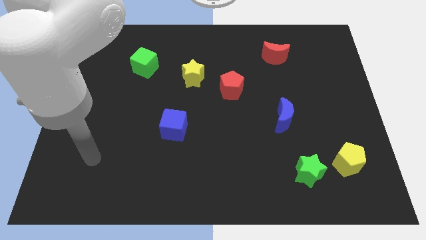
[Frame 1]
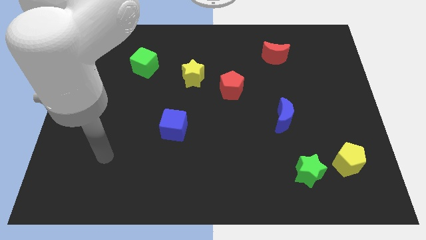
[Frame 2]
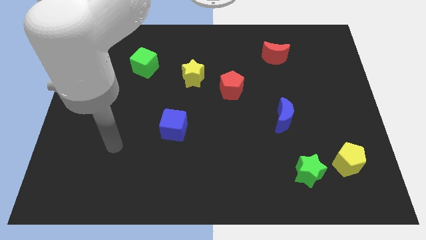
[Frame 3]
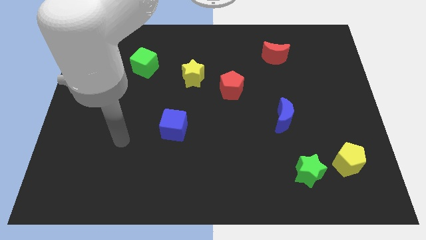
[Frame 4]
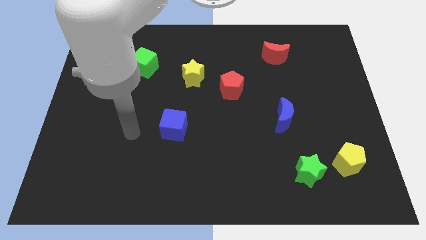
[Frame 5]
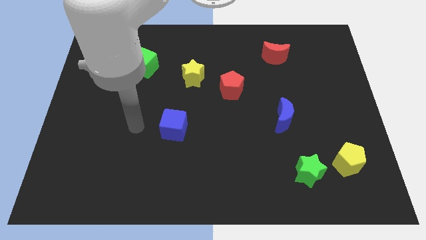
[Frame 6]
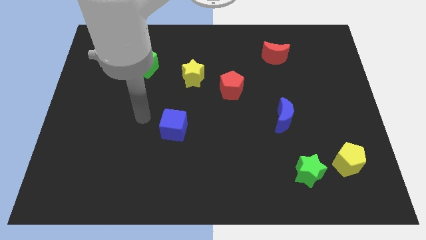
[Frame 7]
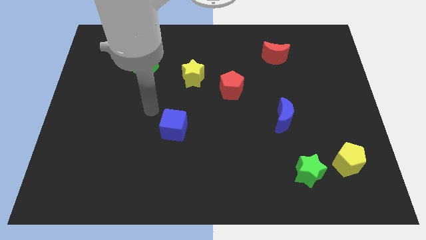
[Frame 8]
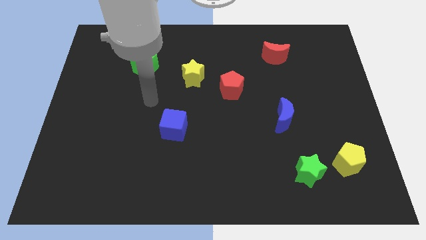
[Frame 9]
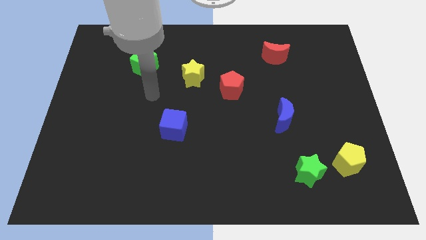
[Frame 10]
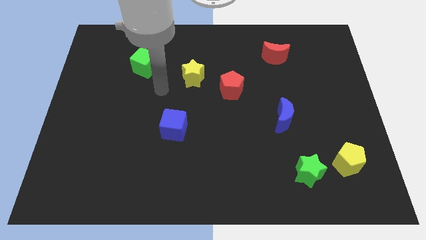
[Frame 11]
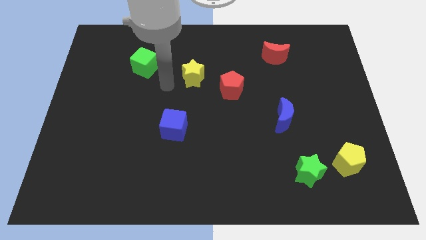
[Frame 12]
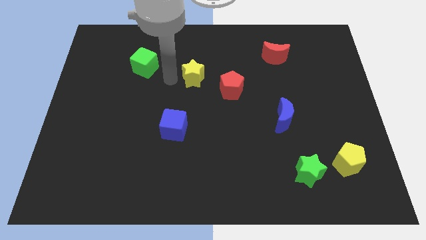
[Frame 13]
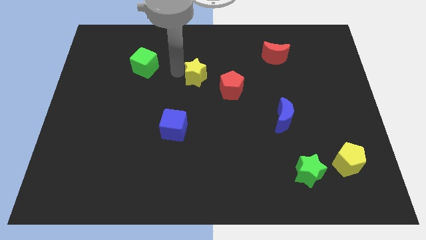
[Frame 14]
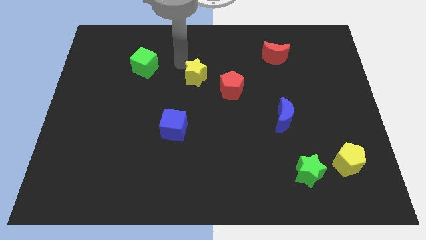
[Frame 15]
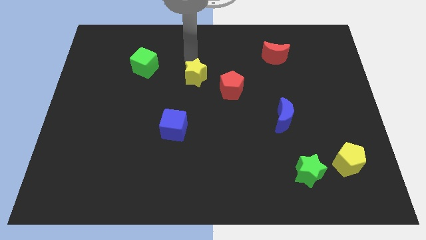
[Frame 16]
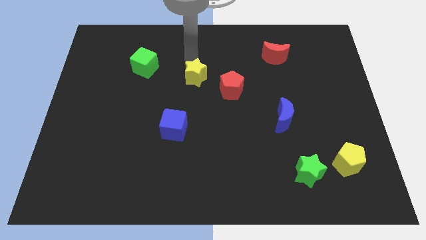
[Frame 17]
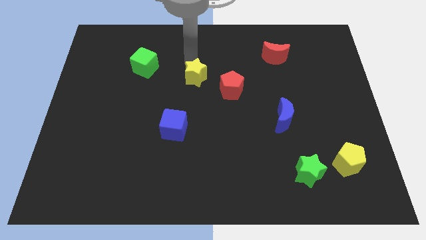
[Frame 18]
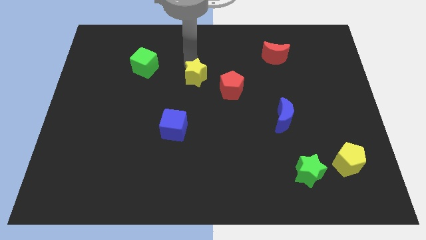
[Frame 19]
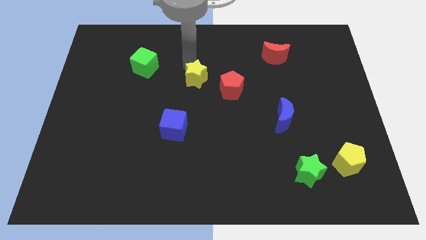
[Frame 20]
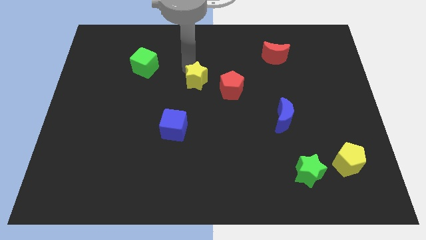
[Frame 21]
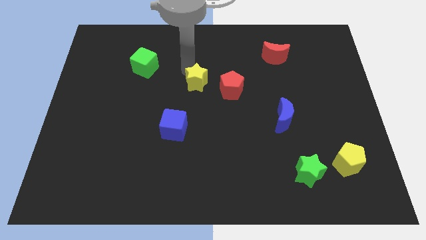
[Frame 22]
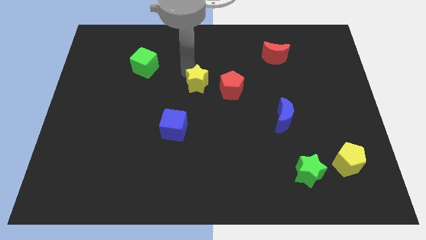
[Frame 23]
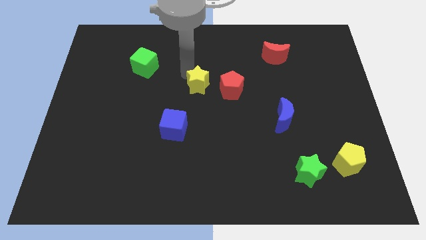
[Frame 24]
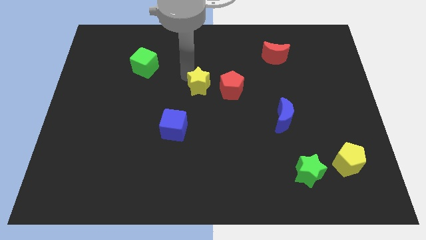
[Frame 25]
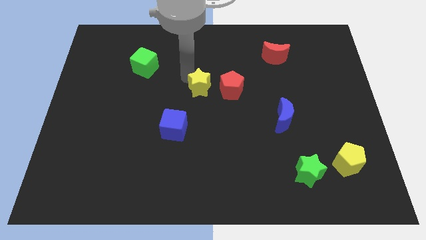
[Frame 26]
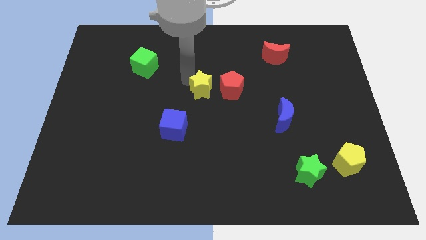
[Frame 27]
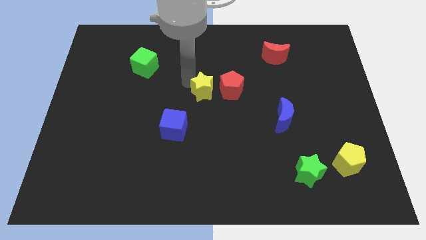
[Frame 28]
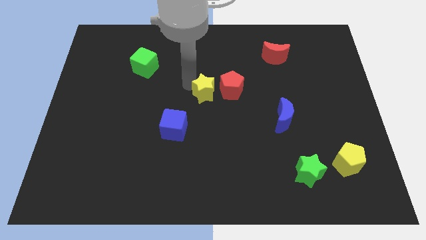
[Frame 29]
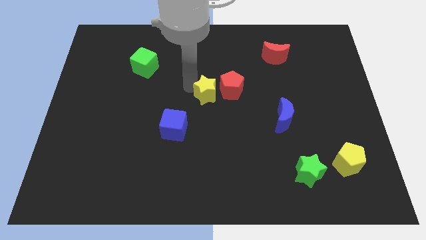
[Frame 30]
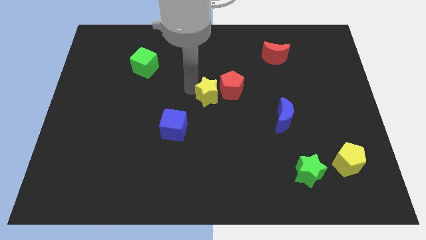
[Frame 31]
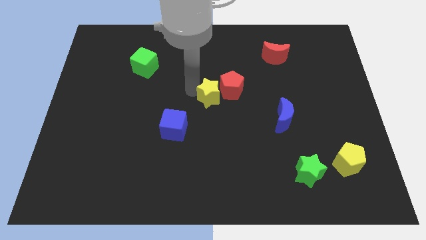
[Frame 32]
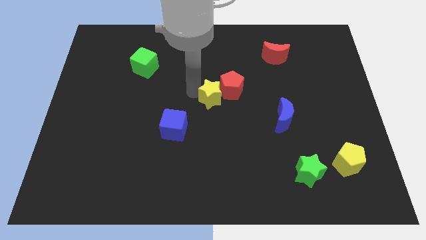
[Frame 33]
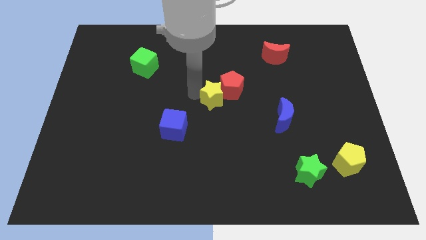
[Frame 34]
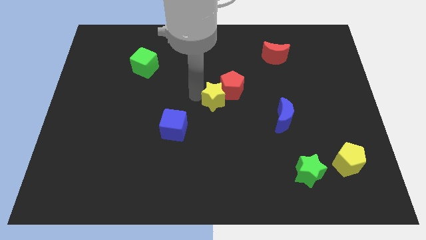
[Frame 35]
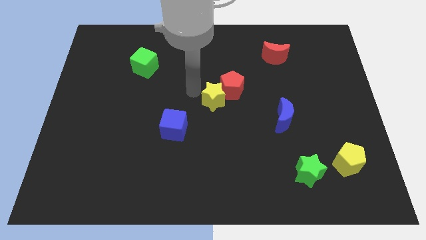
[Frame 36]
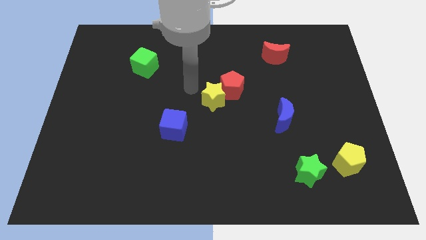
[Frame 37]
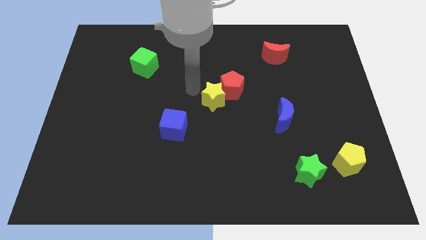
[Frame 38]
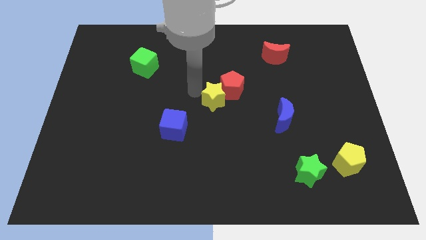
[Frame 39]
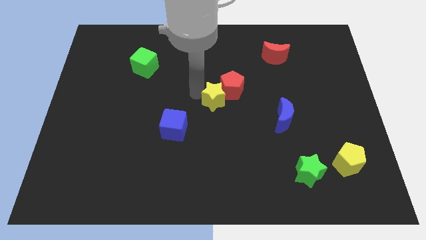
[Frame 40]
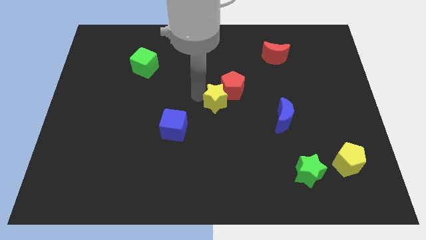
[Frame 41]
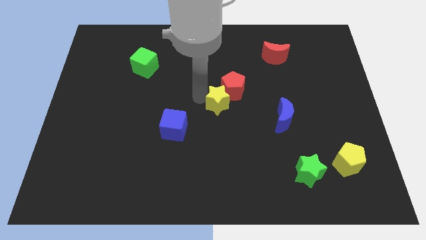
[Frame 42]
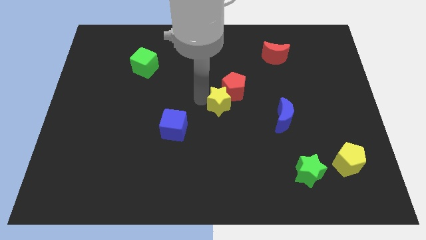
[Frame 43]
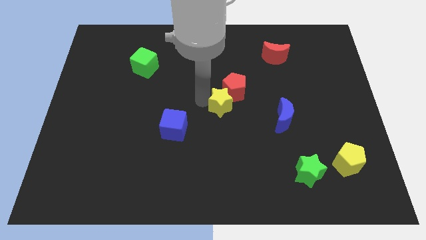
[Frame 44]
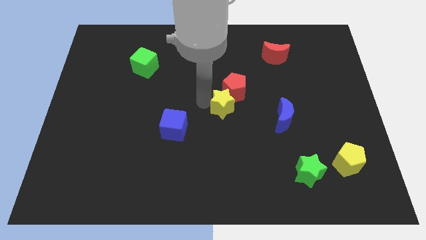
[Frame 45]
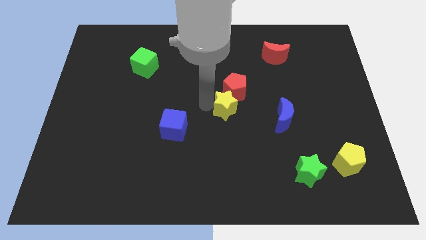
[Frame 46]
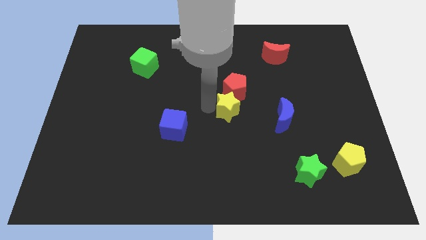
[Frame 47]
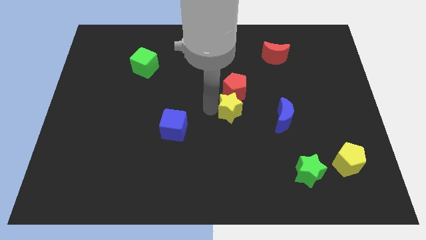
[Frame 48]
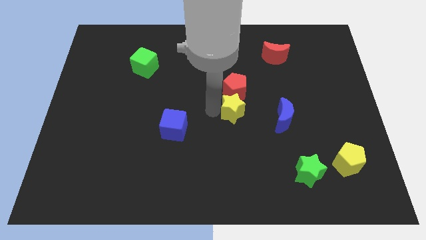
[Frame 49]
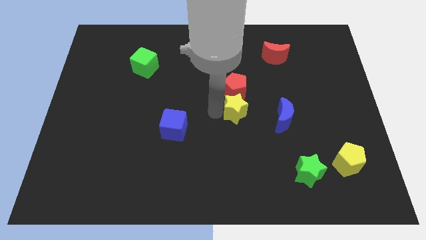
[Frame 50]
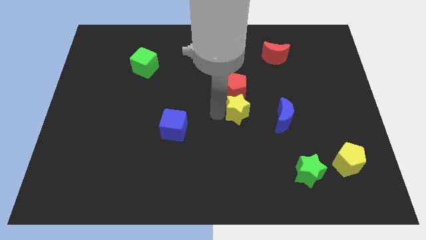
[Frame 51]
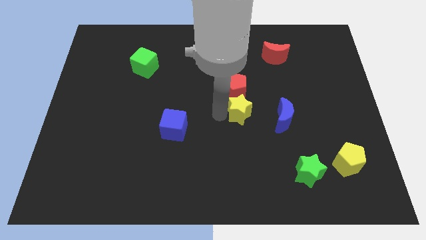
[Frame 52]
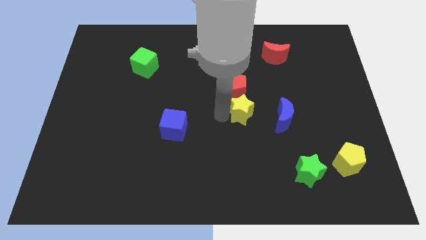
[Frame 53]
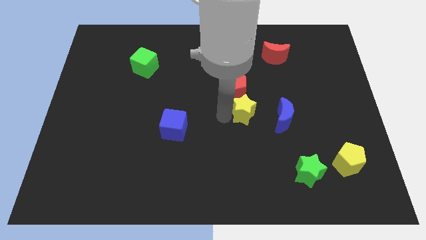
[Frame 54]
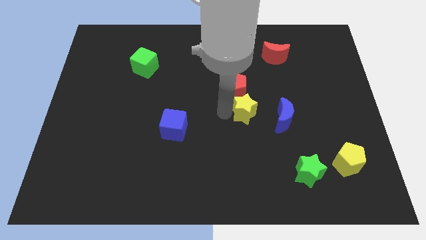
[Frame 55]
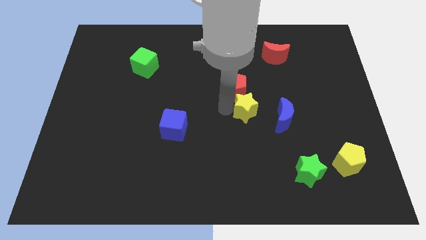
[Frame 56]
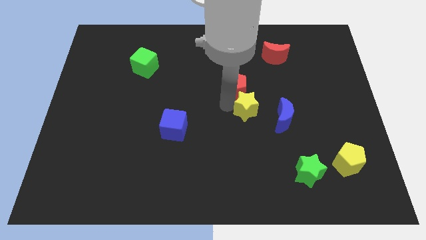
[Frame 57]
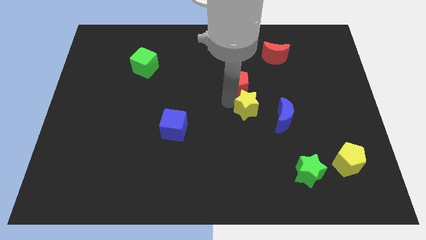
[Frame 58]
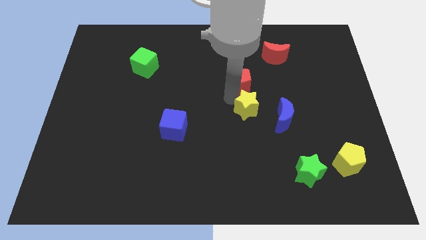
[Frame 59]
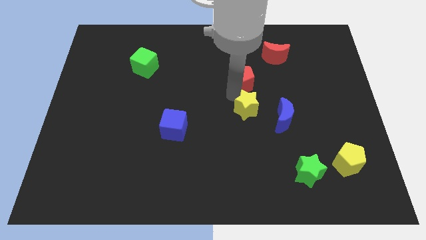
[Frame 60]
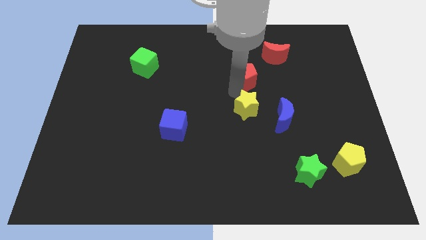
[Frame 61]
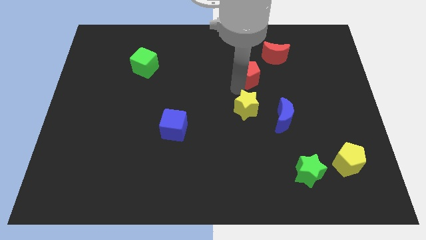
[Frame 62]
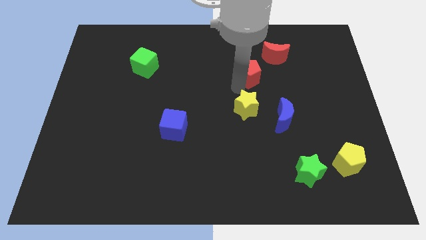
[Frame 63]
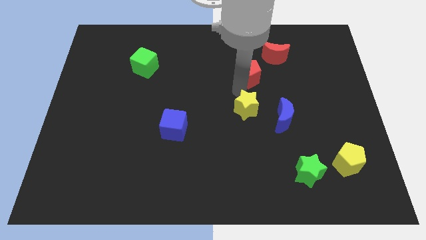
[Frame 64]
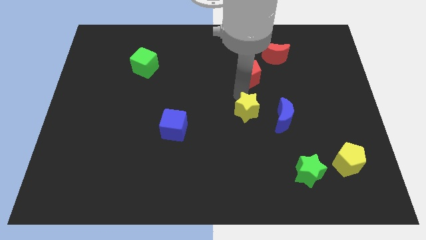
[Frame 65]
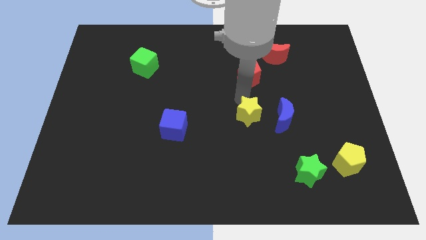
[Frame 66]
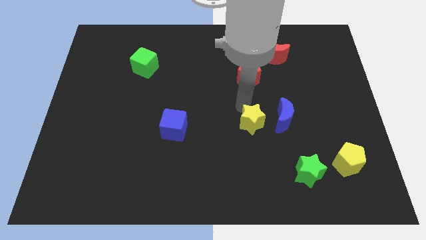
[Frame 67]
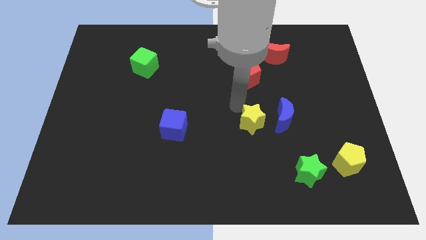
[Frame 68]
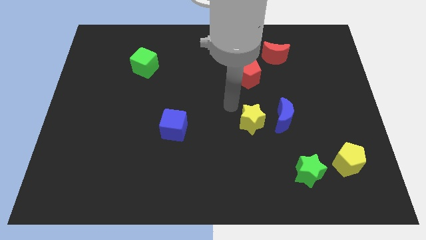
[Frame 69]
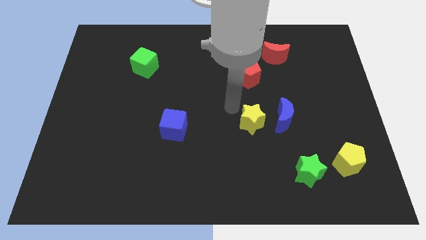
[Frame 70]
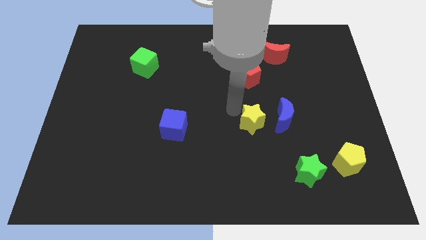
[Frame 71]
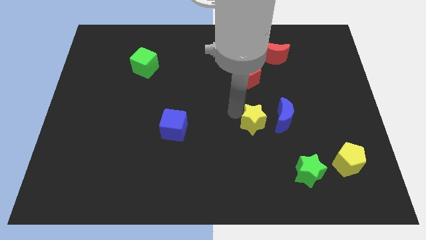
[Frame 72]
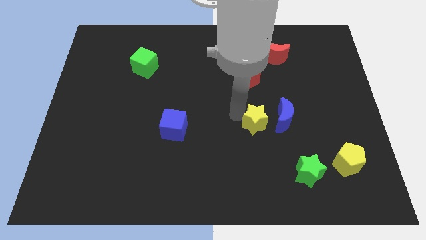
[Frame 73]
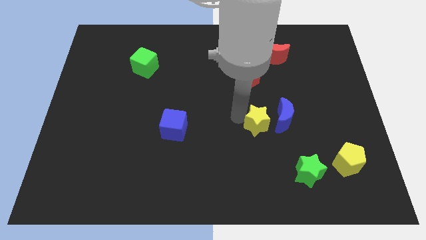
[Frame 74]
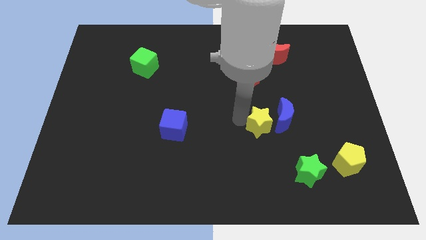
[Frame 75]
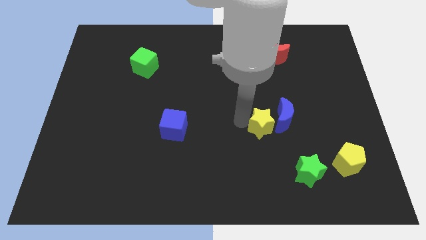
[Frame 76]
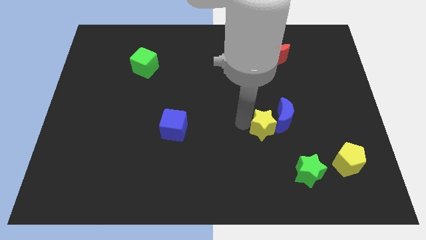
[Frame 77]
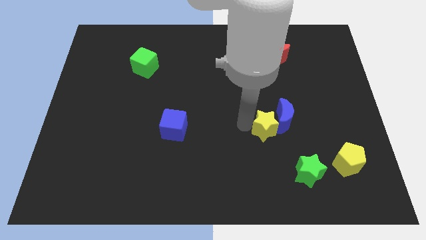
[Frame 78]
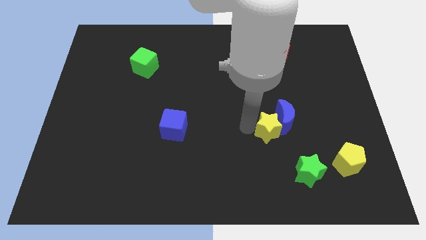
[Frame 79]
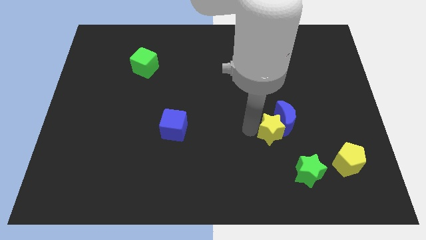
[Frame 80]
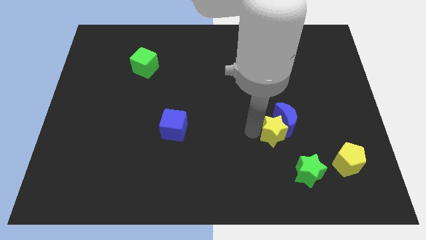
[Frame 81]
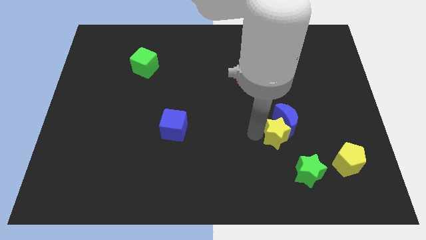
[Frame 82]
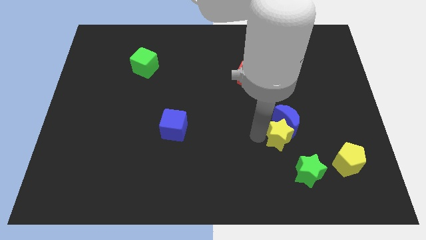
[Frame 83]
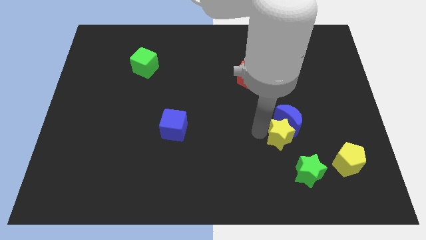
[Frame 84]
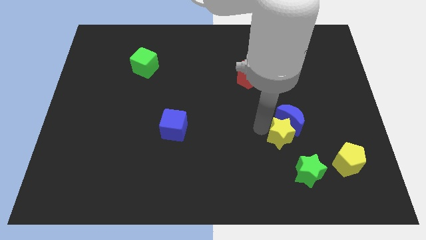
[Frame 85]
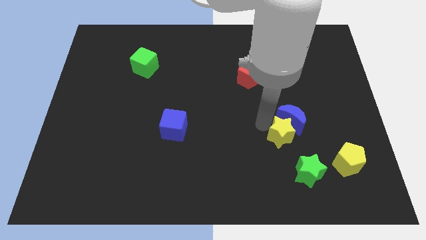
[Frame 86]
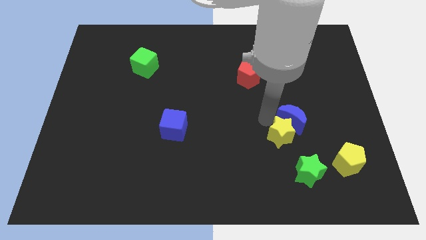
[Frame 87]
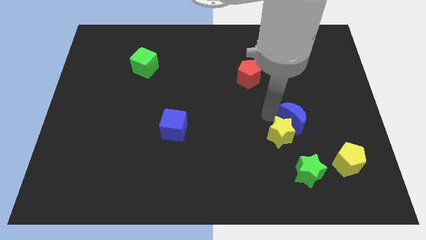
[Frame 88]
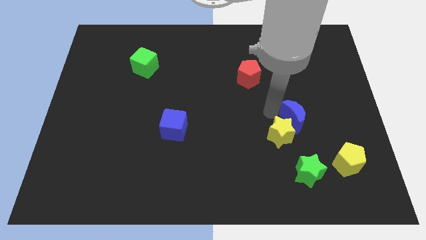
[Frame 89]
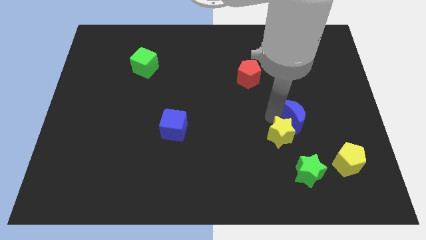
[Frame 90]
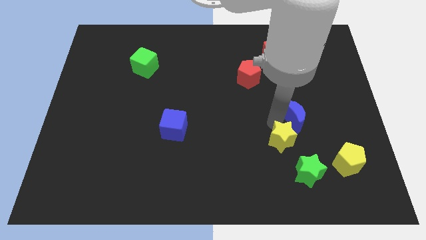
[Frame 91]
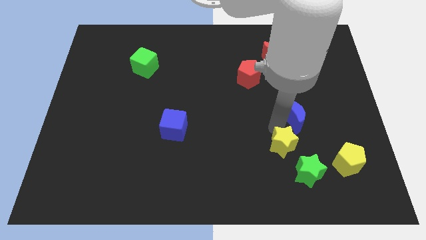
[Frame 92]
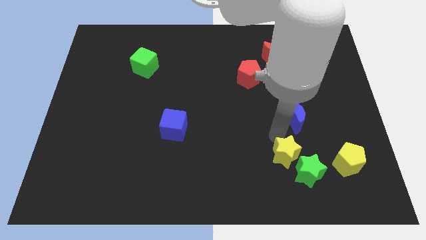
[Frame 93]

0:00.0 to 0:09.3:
put the yellow star next to the green star
